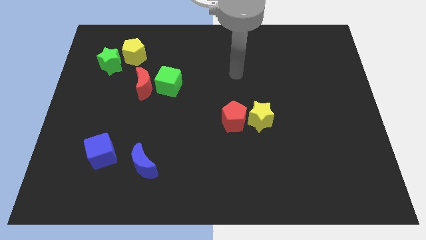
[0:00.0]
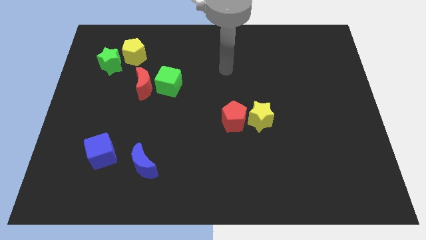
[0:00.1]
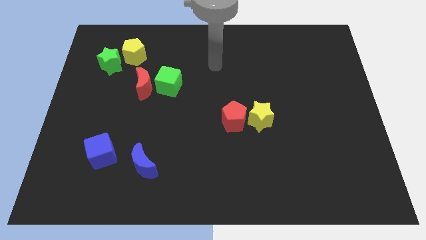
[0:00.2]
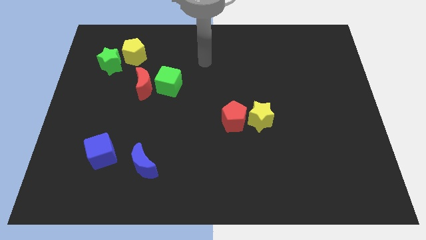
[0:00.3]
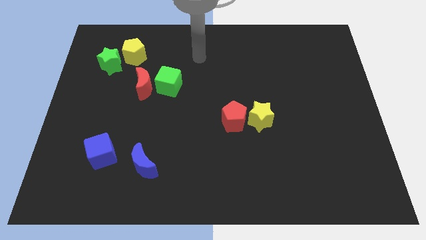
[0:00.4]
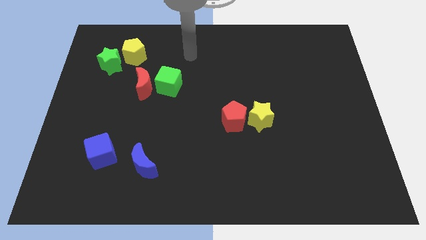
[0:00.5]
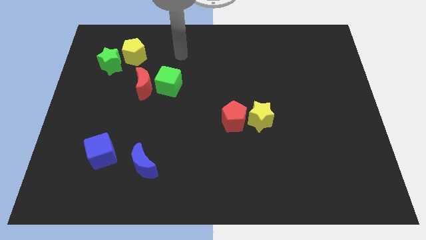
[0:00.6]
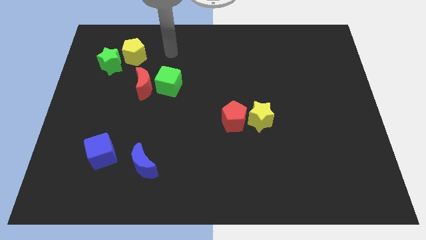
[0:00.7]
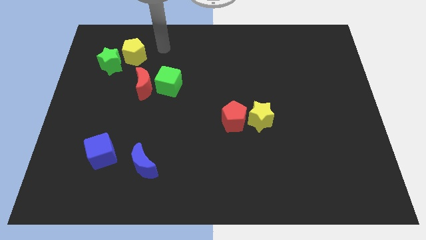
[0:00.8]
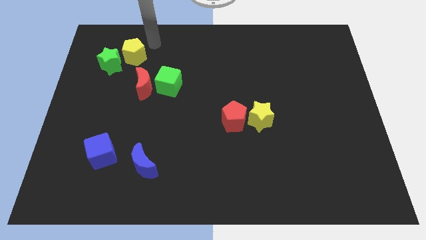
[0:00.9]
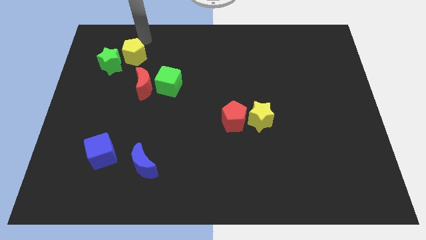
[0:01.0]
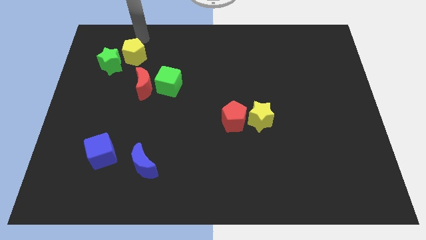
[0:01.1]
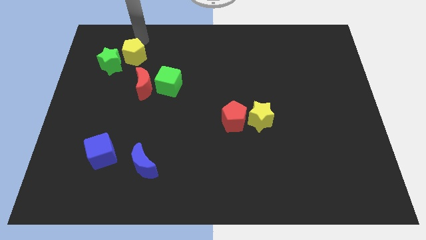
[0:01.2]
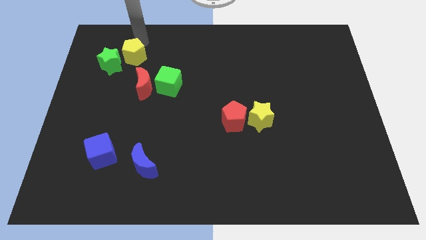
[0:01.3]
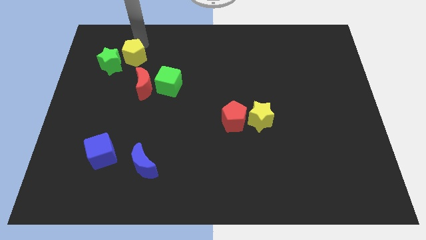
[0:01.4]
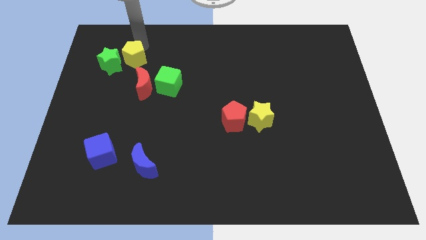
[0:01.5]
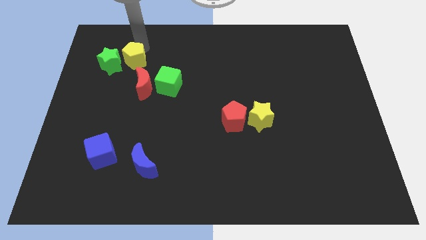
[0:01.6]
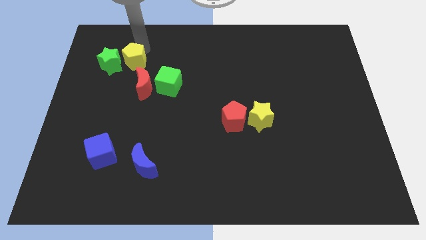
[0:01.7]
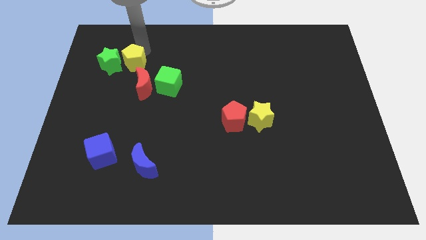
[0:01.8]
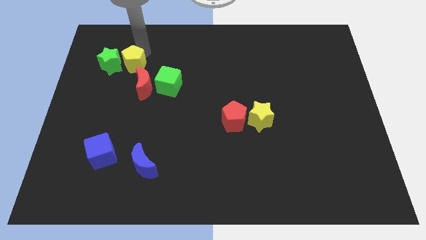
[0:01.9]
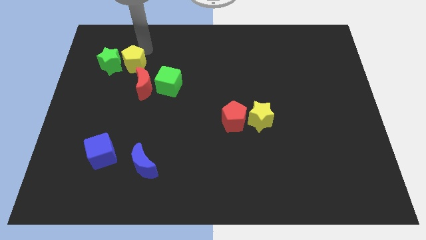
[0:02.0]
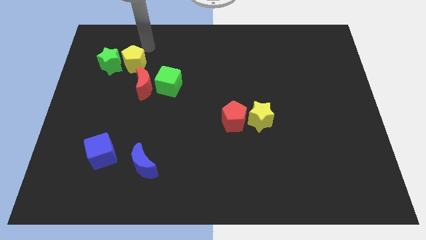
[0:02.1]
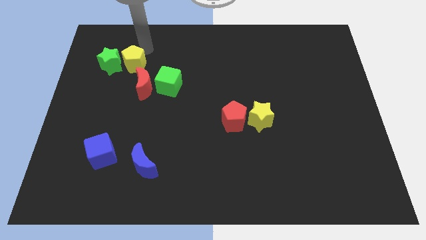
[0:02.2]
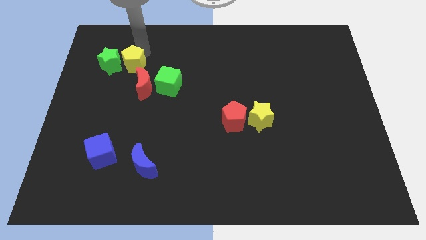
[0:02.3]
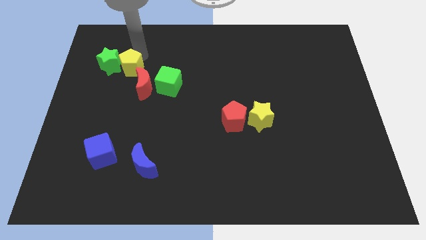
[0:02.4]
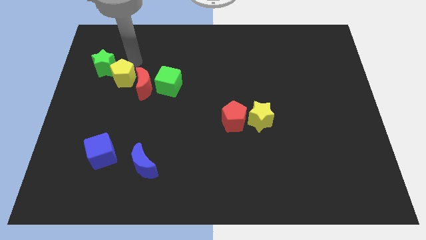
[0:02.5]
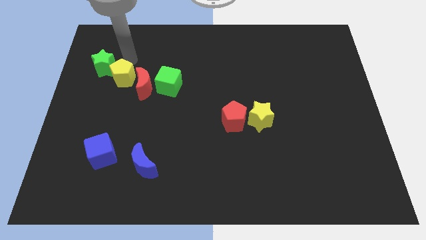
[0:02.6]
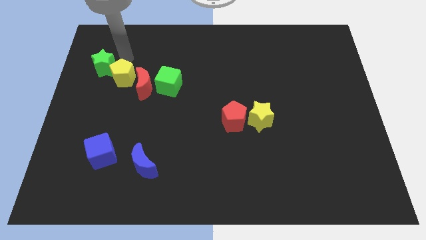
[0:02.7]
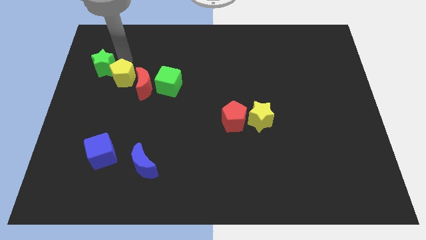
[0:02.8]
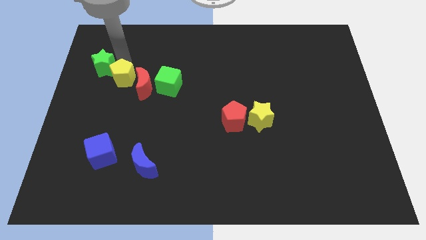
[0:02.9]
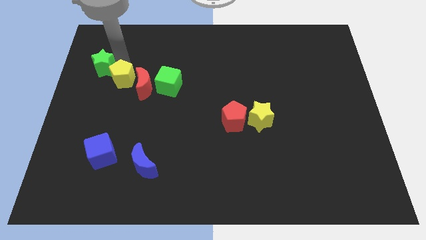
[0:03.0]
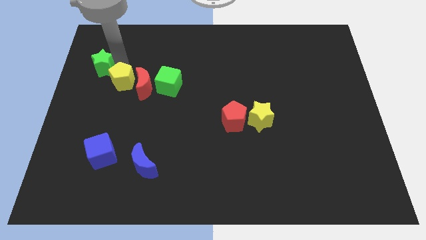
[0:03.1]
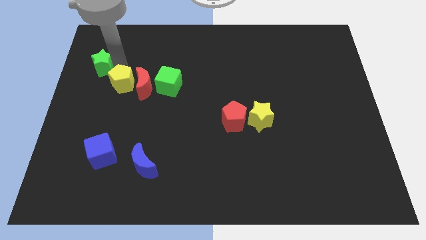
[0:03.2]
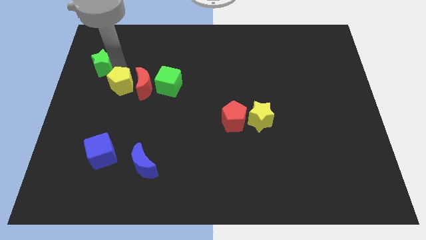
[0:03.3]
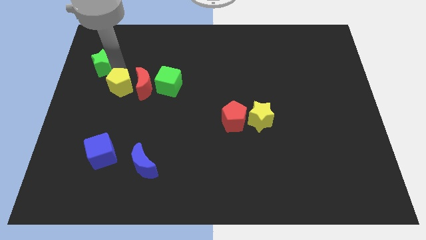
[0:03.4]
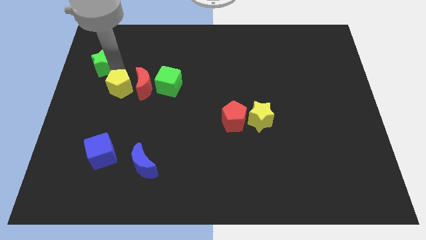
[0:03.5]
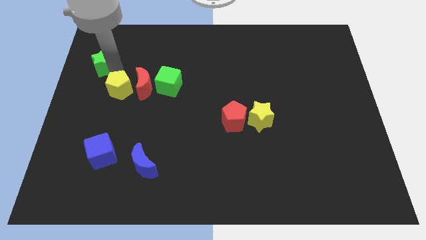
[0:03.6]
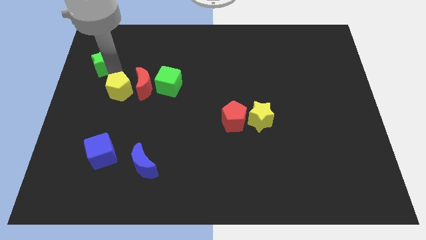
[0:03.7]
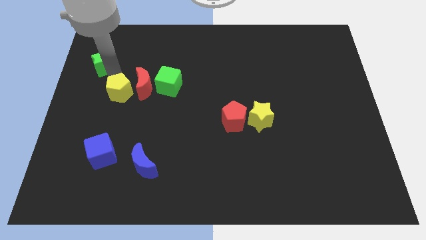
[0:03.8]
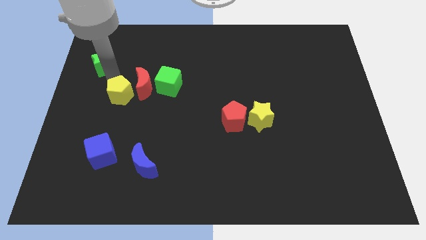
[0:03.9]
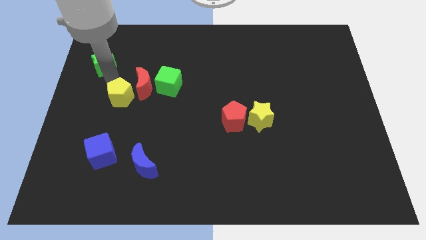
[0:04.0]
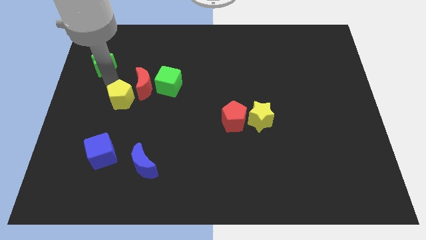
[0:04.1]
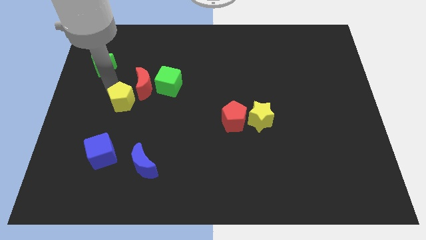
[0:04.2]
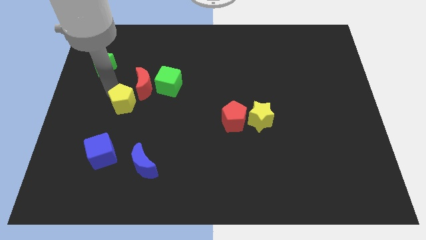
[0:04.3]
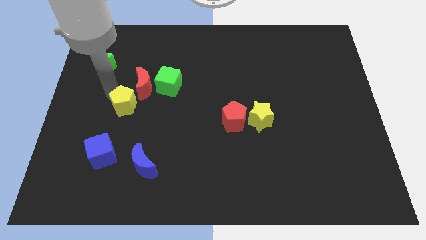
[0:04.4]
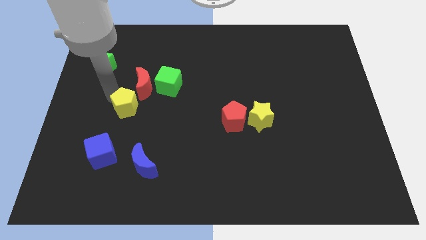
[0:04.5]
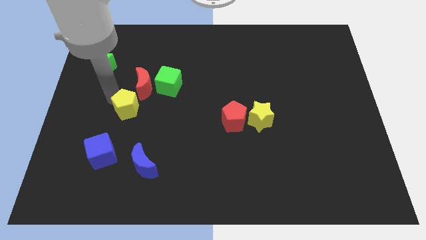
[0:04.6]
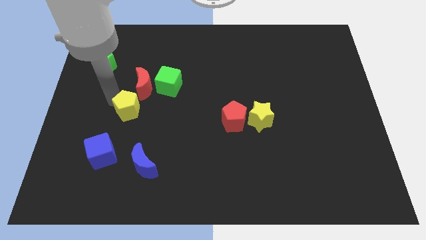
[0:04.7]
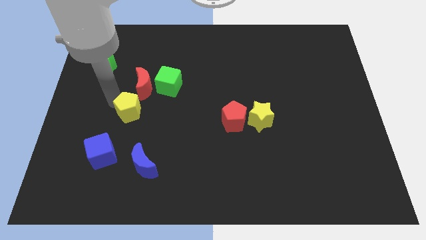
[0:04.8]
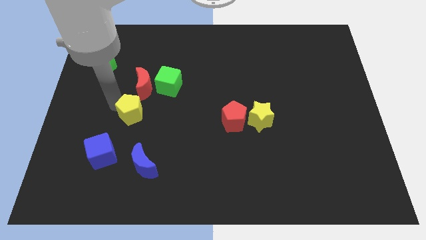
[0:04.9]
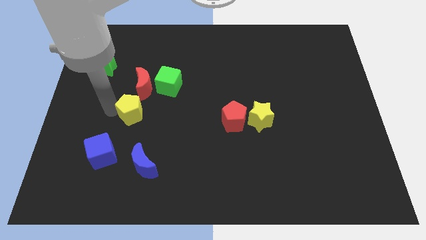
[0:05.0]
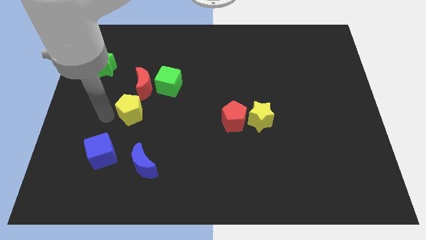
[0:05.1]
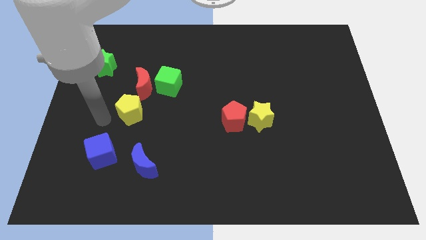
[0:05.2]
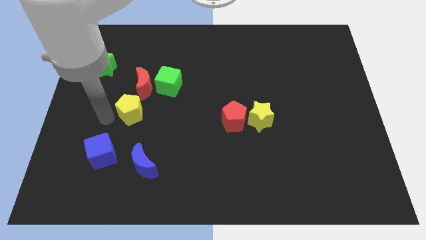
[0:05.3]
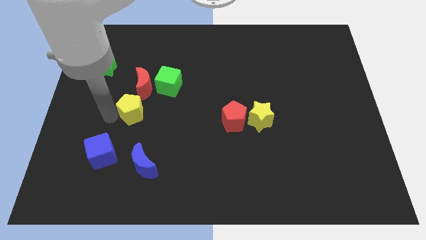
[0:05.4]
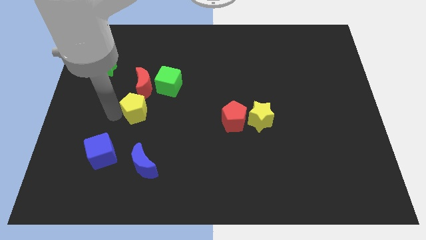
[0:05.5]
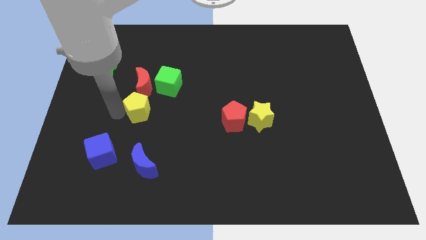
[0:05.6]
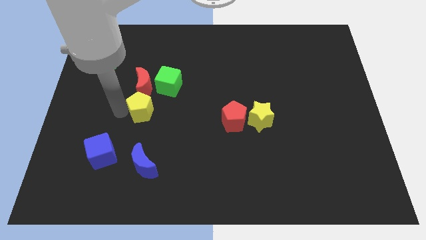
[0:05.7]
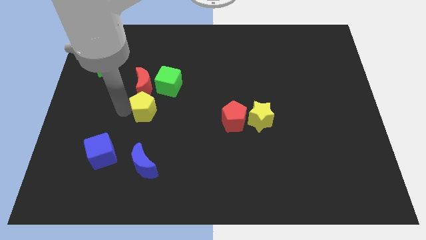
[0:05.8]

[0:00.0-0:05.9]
push the yellow pentagon diagonally down and to the right of the red moon
